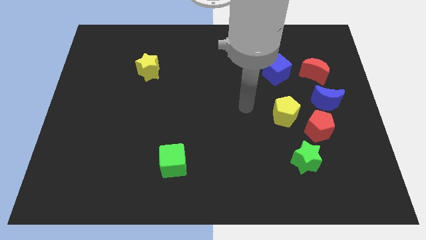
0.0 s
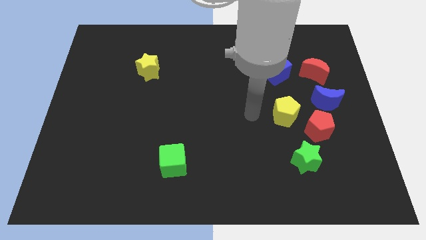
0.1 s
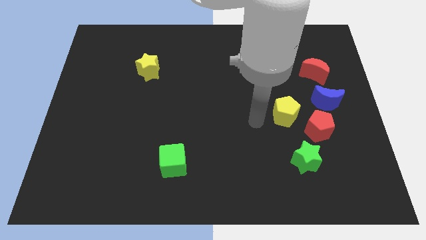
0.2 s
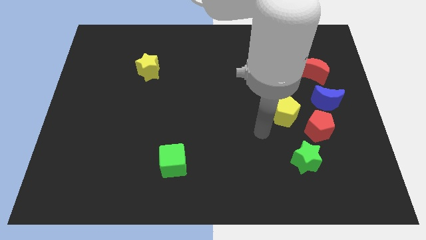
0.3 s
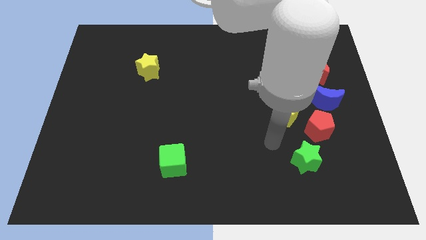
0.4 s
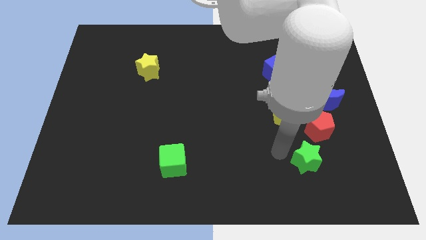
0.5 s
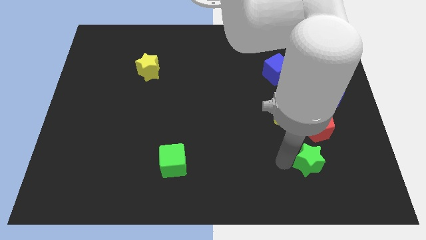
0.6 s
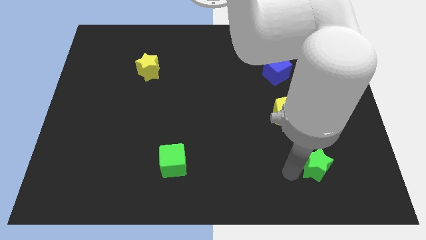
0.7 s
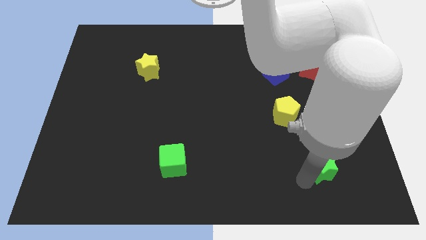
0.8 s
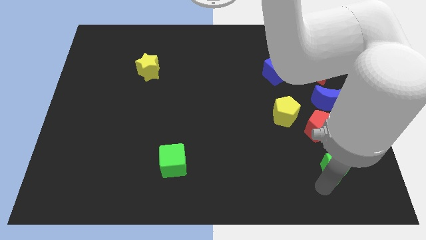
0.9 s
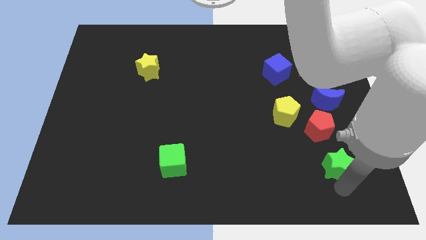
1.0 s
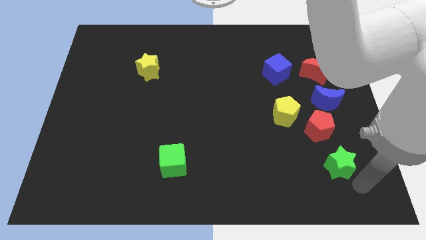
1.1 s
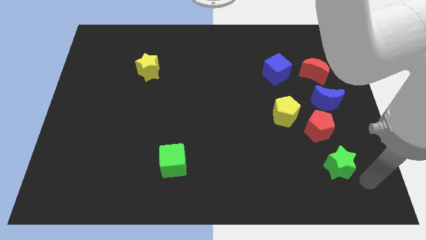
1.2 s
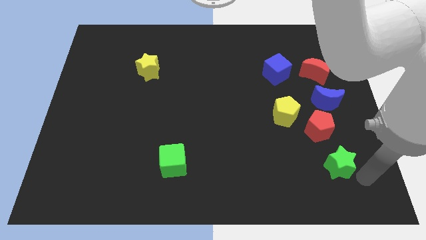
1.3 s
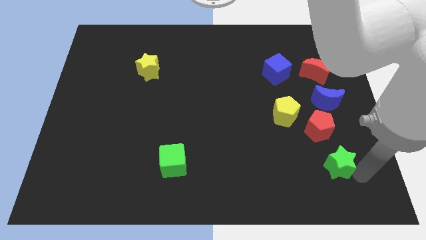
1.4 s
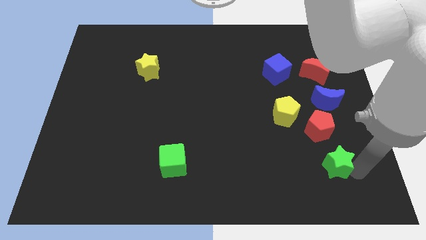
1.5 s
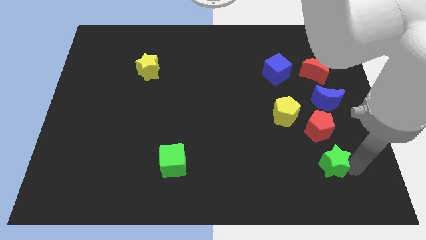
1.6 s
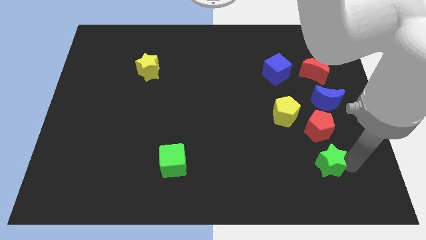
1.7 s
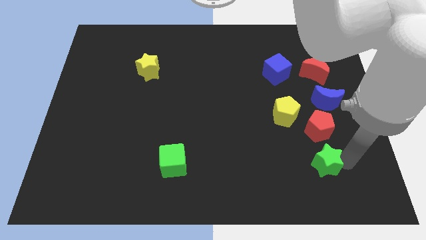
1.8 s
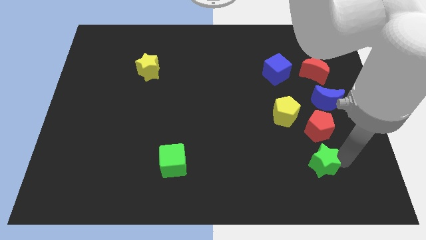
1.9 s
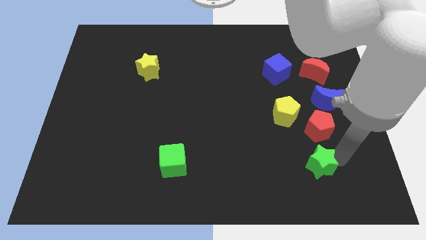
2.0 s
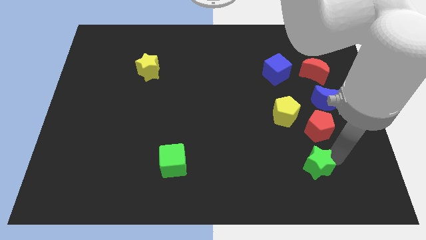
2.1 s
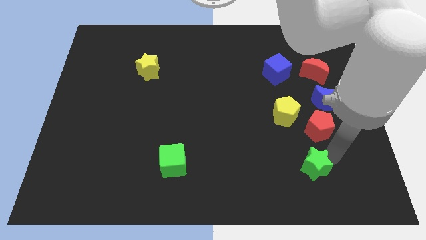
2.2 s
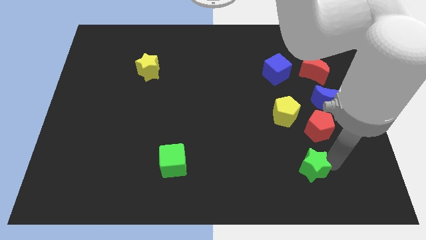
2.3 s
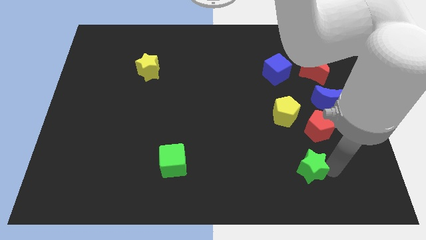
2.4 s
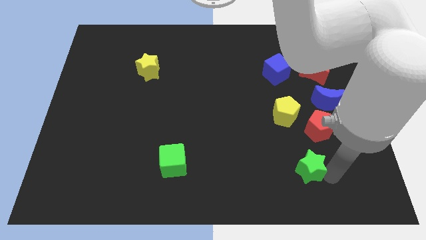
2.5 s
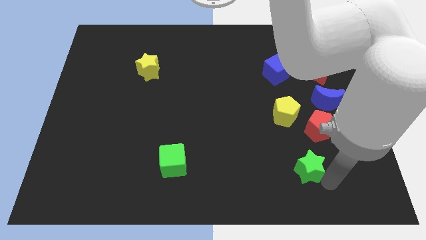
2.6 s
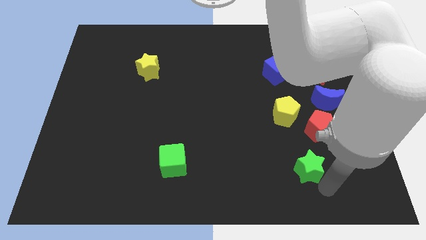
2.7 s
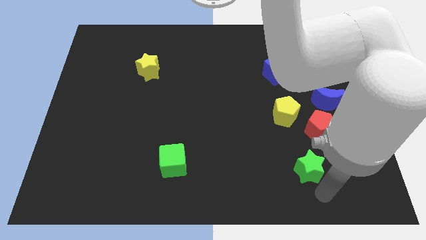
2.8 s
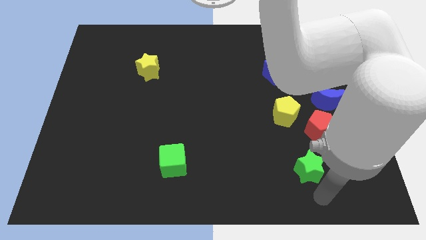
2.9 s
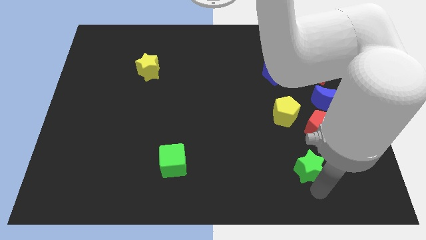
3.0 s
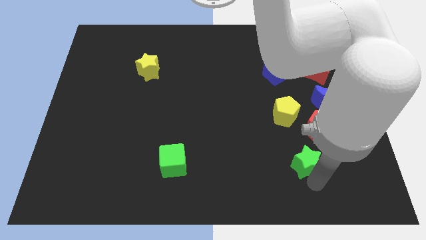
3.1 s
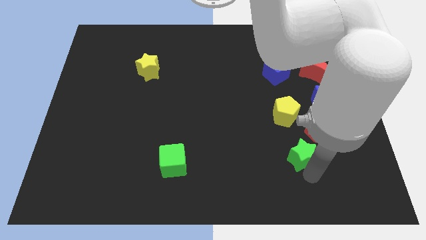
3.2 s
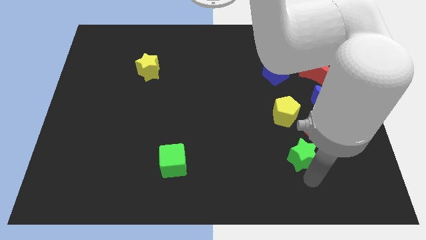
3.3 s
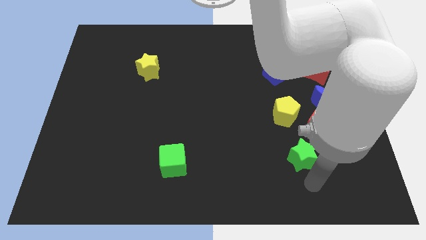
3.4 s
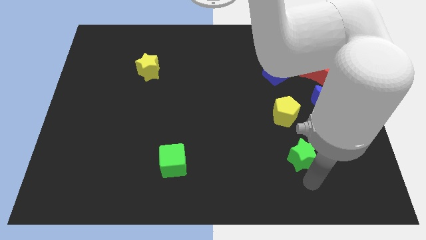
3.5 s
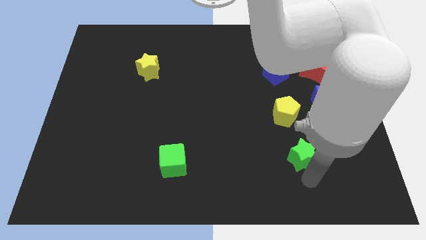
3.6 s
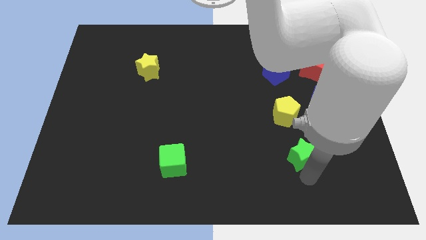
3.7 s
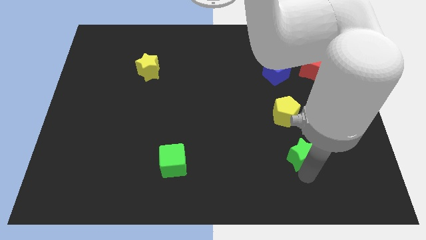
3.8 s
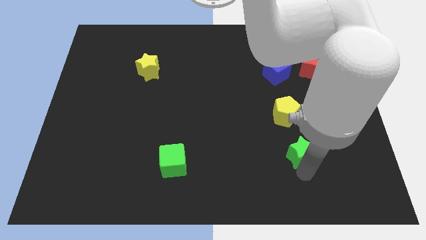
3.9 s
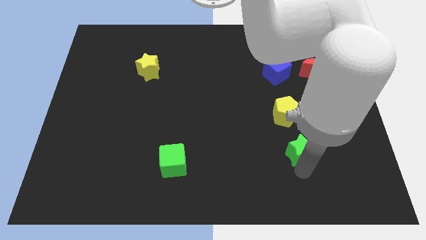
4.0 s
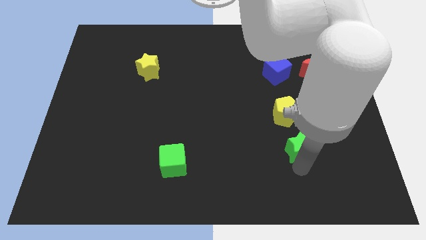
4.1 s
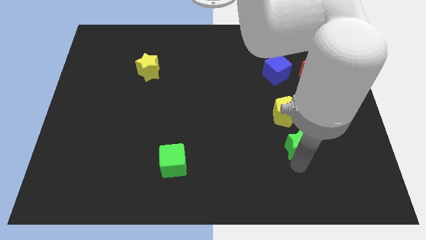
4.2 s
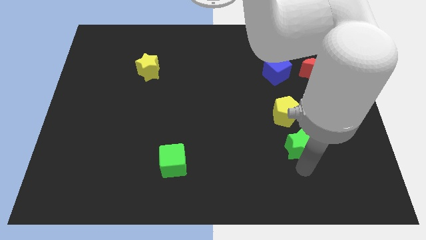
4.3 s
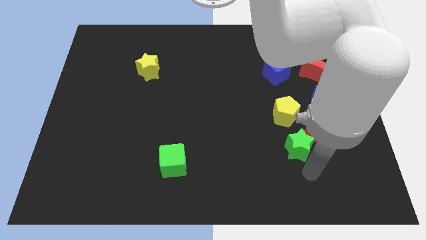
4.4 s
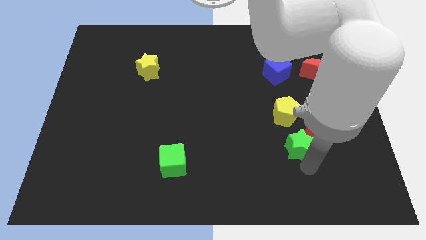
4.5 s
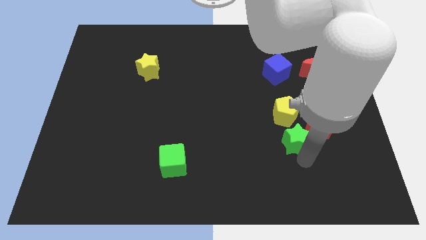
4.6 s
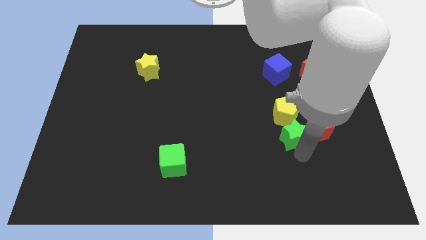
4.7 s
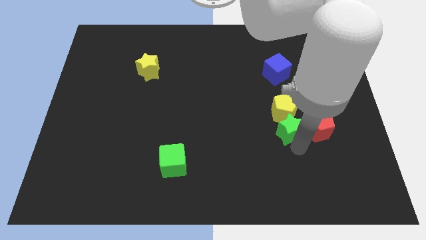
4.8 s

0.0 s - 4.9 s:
slide the green star to the yellow pentagon

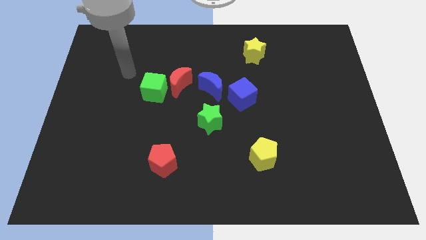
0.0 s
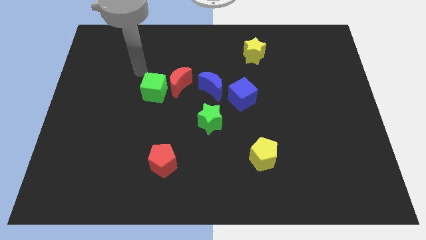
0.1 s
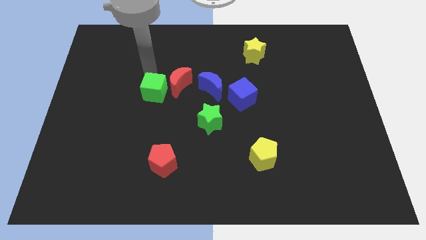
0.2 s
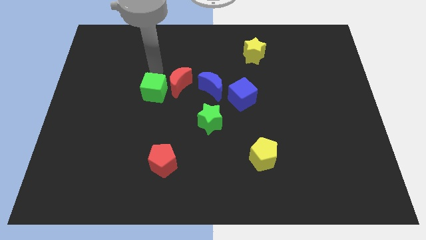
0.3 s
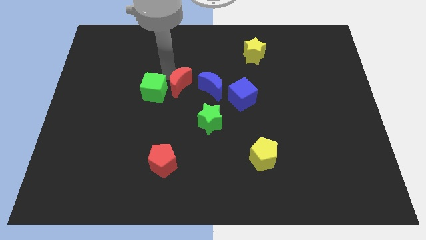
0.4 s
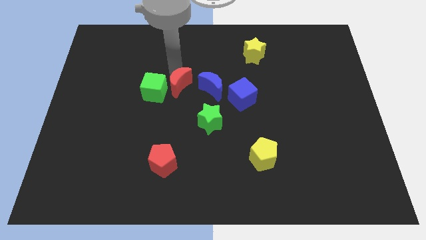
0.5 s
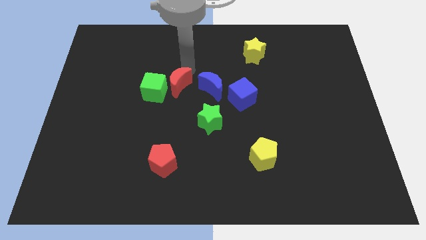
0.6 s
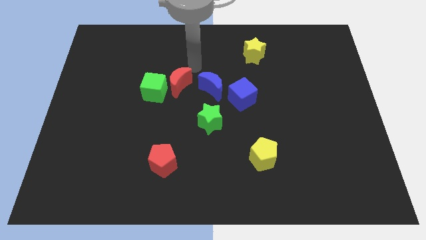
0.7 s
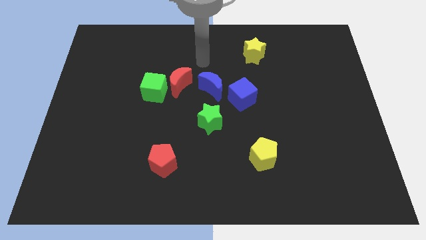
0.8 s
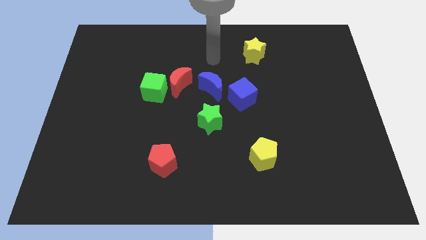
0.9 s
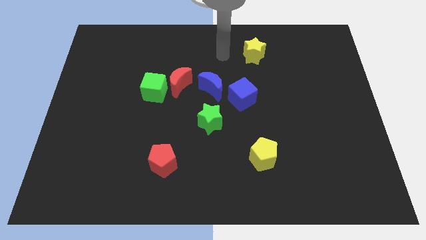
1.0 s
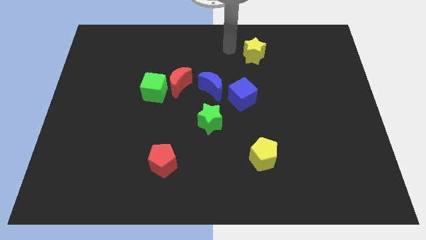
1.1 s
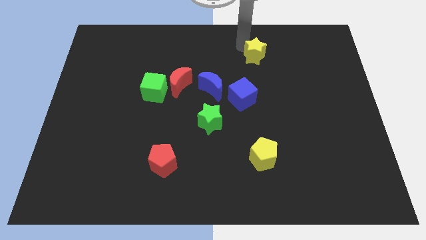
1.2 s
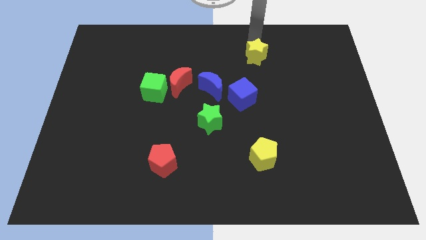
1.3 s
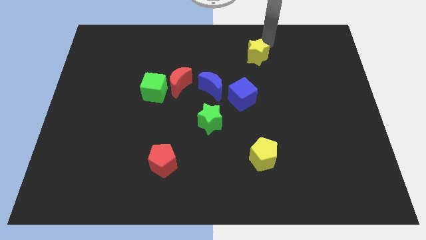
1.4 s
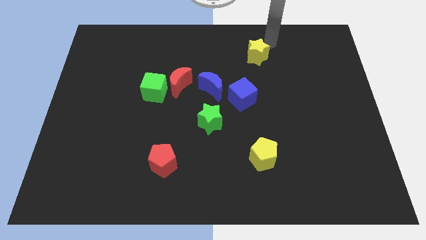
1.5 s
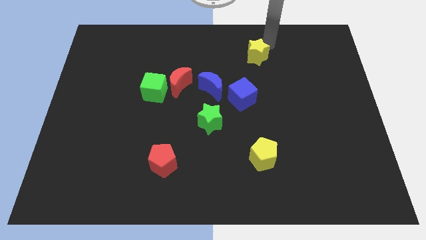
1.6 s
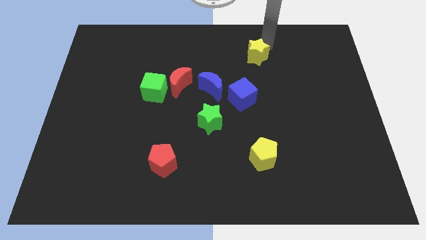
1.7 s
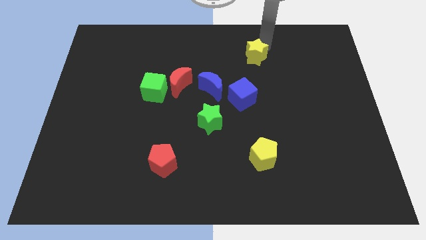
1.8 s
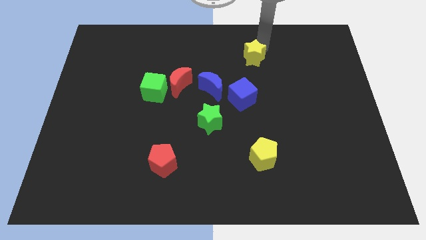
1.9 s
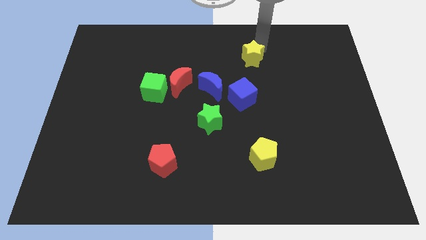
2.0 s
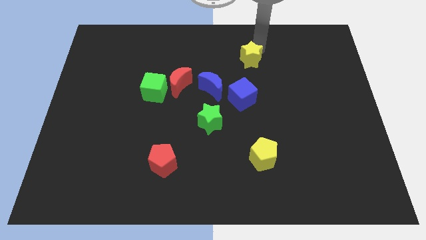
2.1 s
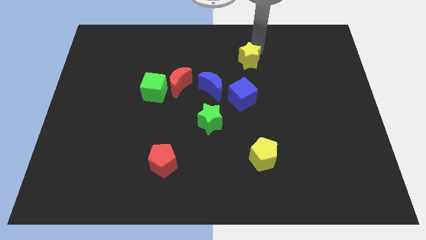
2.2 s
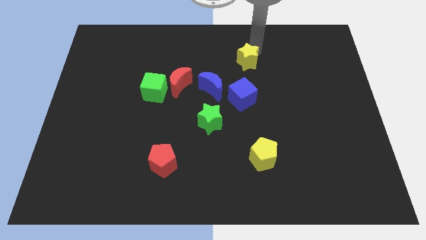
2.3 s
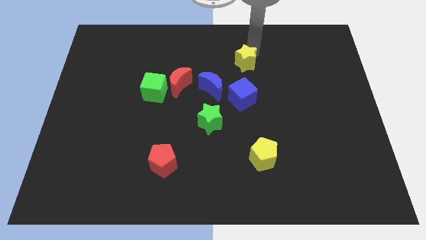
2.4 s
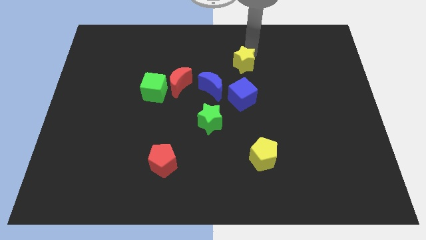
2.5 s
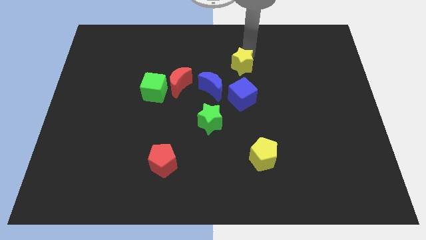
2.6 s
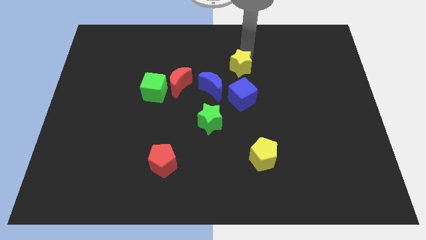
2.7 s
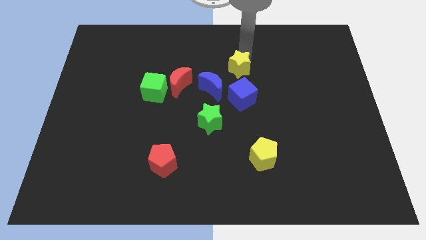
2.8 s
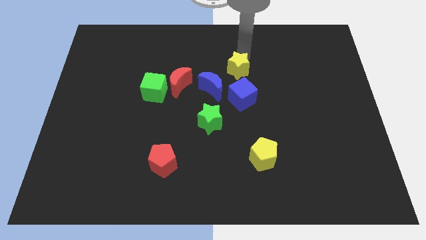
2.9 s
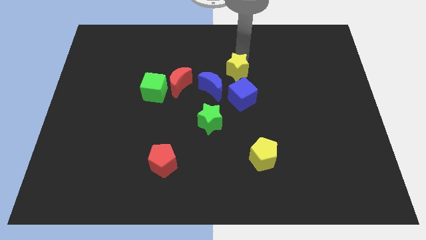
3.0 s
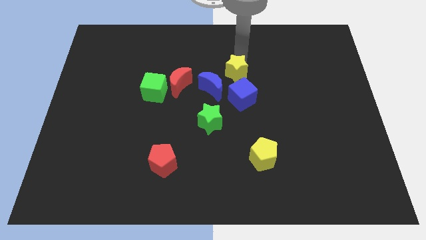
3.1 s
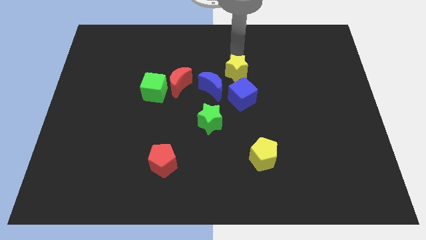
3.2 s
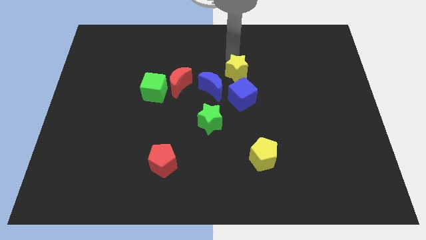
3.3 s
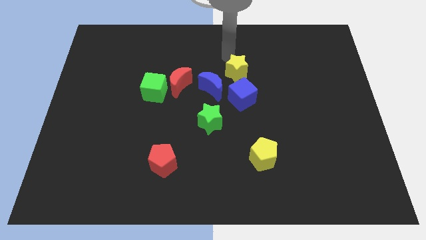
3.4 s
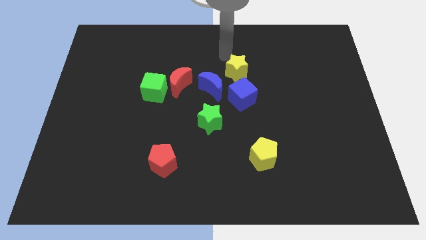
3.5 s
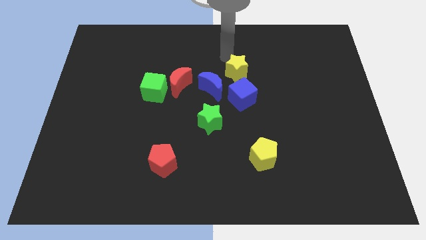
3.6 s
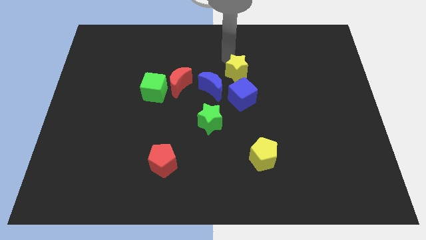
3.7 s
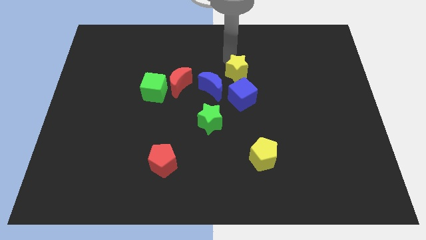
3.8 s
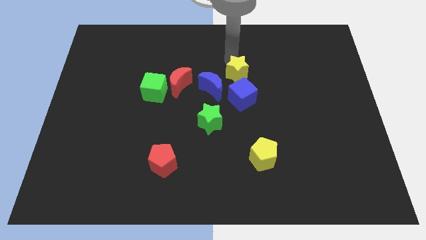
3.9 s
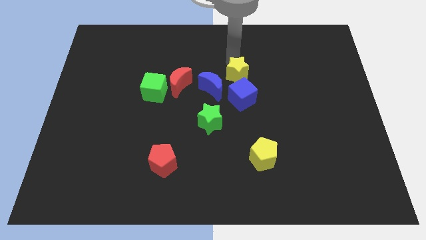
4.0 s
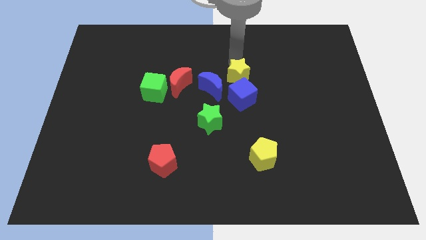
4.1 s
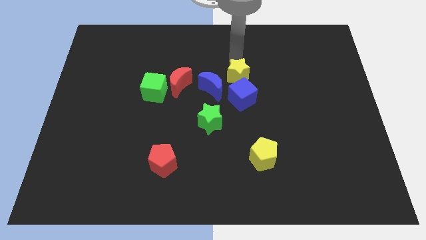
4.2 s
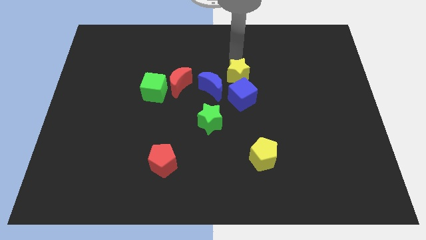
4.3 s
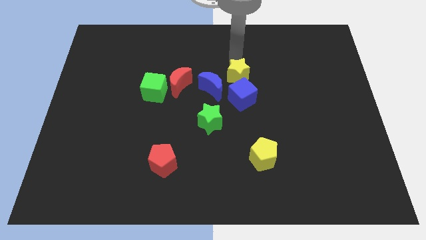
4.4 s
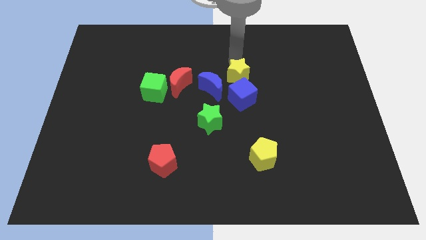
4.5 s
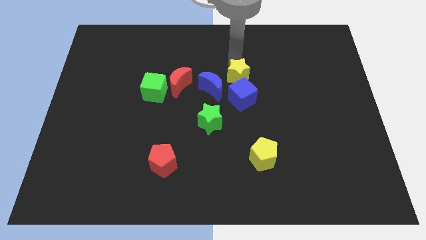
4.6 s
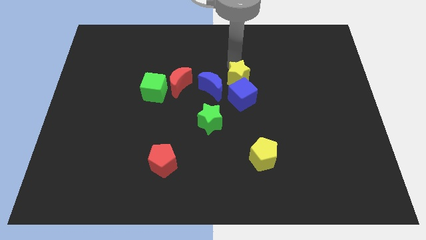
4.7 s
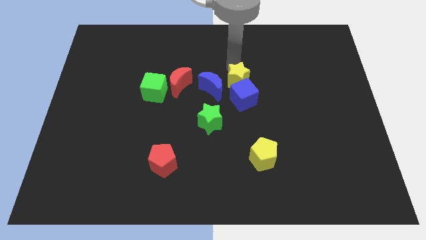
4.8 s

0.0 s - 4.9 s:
move the yellow star to the blue cube
